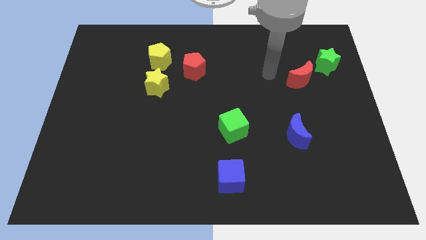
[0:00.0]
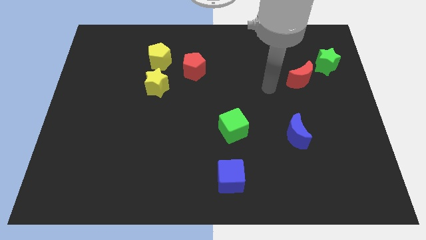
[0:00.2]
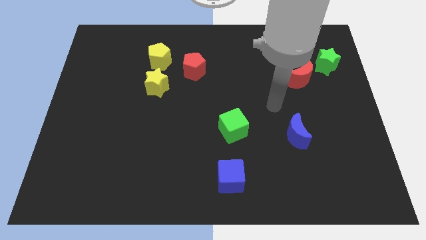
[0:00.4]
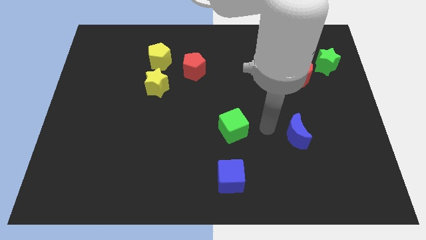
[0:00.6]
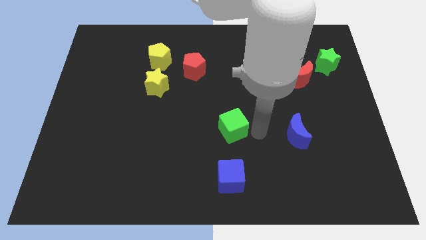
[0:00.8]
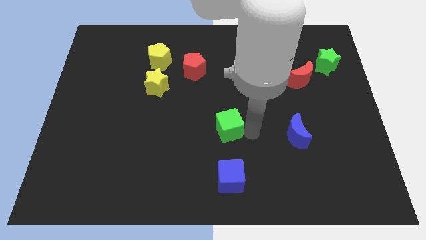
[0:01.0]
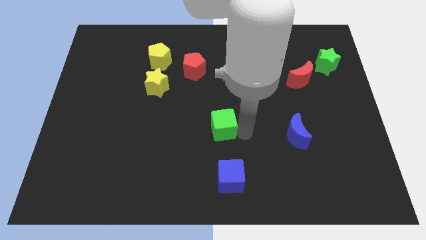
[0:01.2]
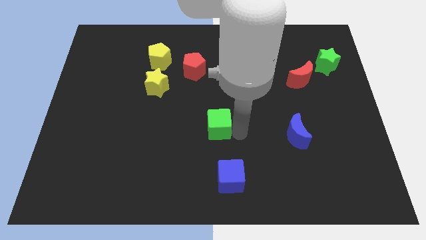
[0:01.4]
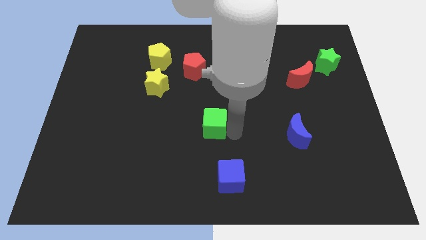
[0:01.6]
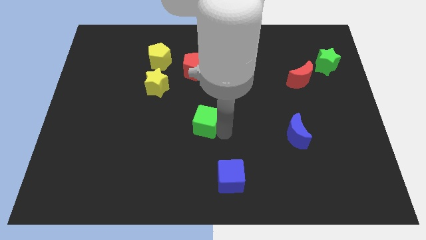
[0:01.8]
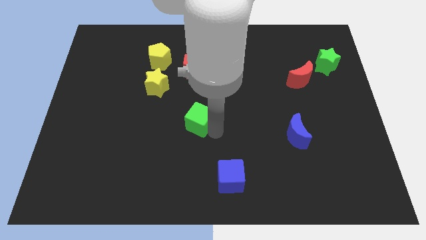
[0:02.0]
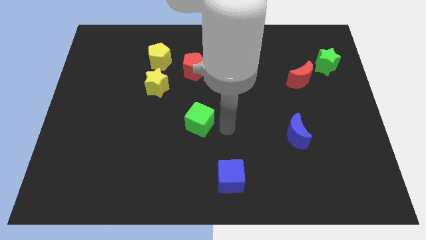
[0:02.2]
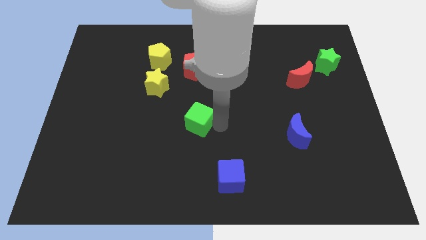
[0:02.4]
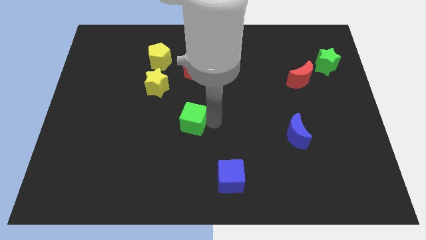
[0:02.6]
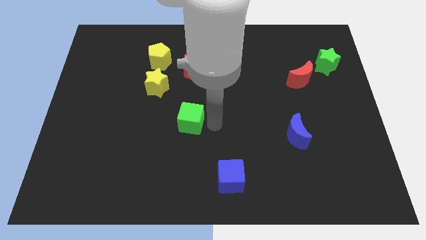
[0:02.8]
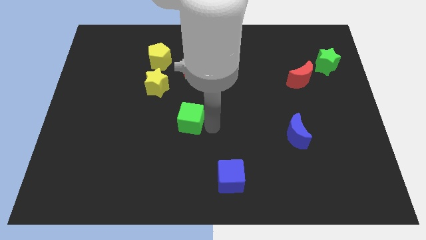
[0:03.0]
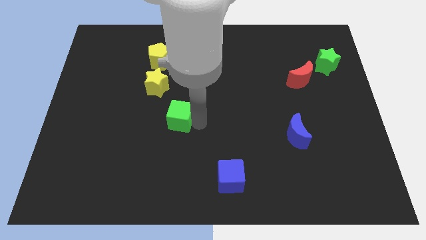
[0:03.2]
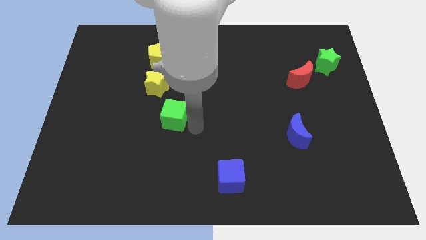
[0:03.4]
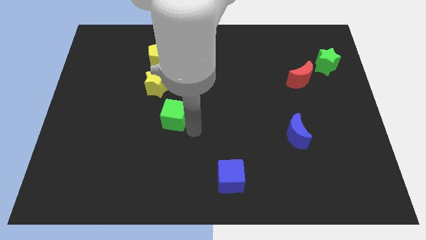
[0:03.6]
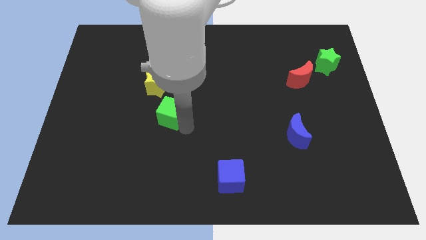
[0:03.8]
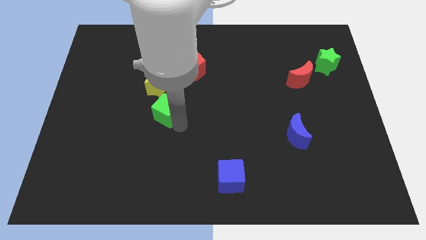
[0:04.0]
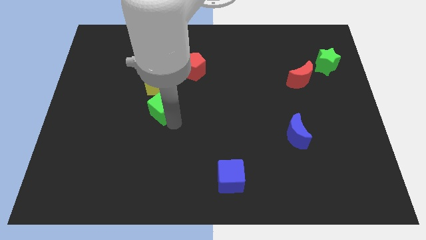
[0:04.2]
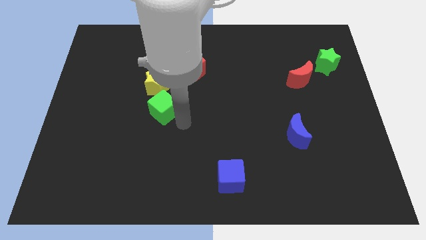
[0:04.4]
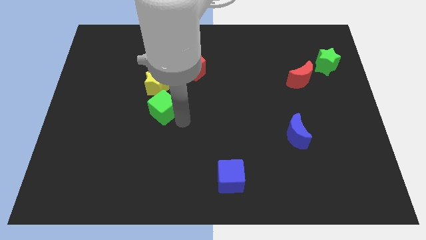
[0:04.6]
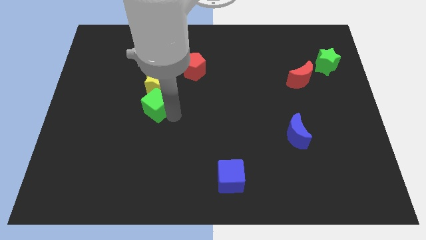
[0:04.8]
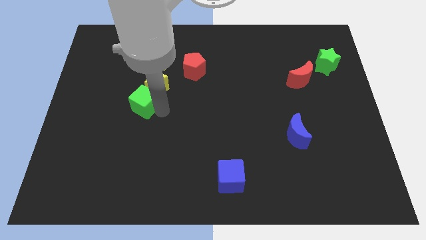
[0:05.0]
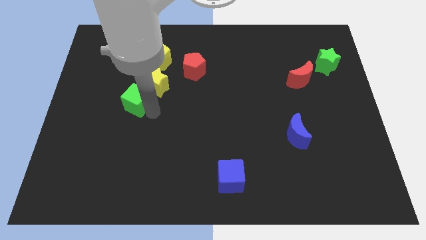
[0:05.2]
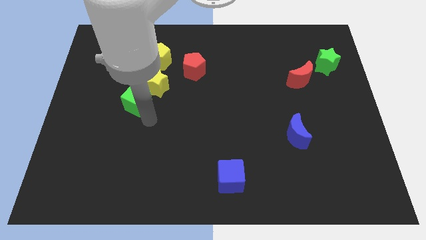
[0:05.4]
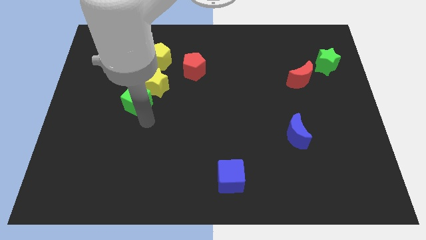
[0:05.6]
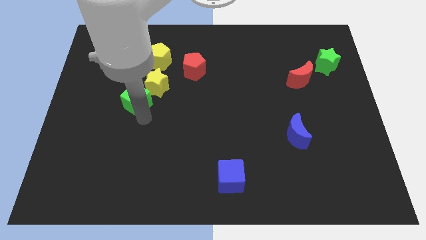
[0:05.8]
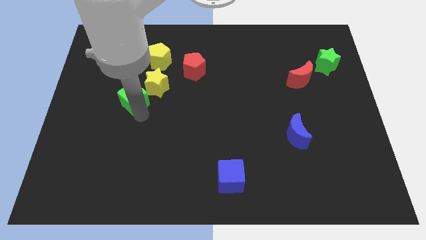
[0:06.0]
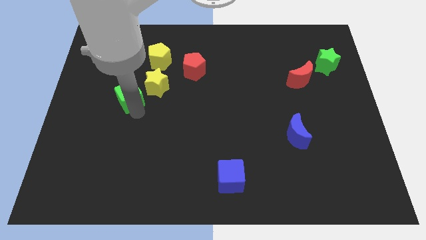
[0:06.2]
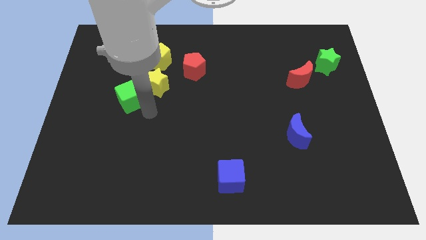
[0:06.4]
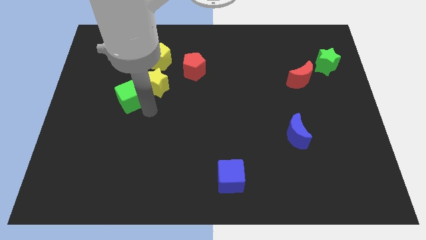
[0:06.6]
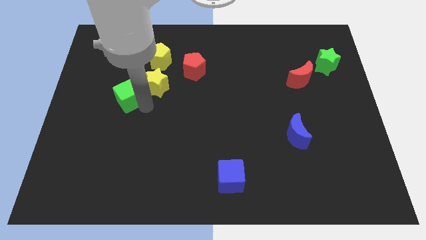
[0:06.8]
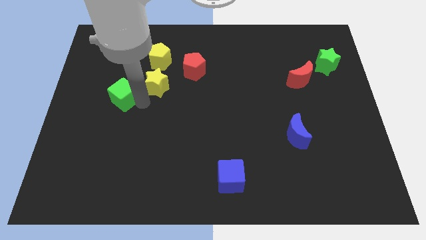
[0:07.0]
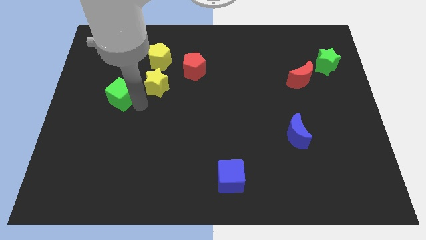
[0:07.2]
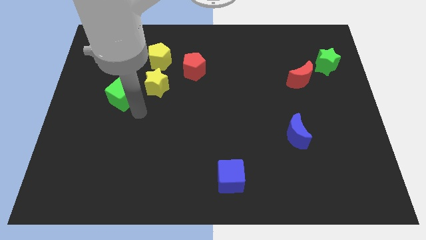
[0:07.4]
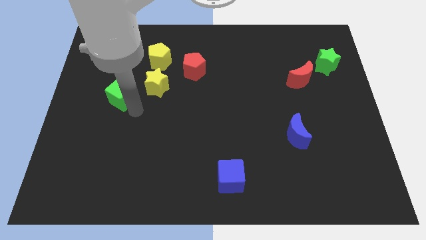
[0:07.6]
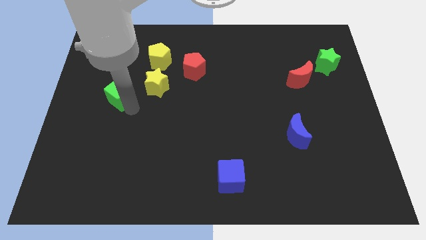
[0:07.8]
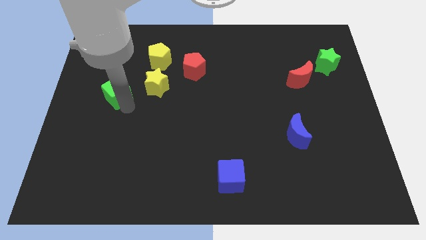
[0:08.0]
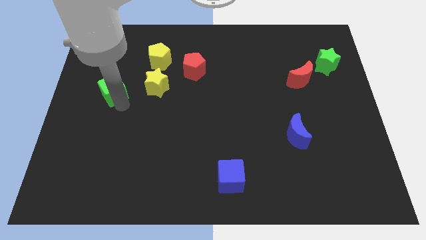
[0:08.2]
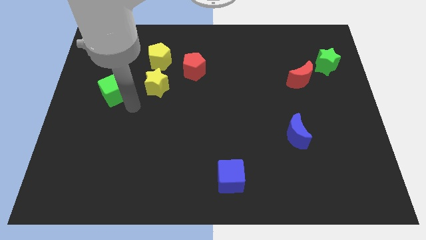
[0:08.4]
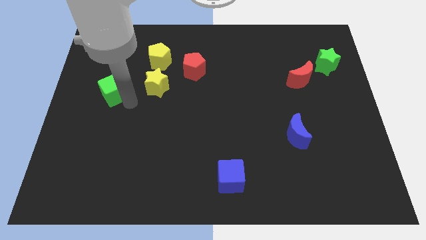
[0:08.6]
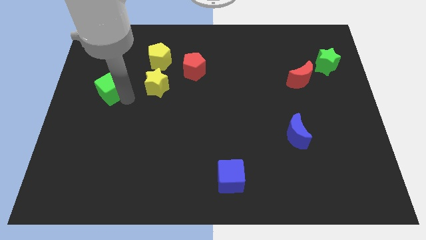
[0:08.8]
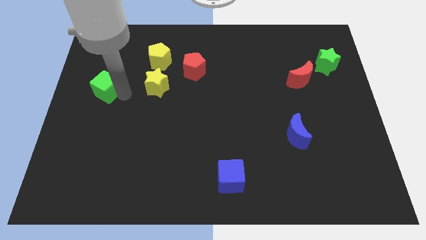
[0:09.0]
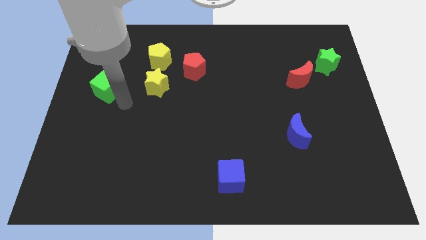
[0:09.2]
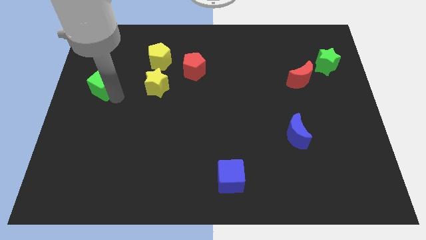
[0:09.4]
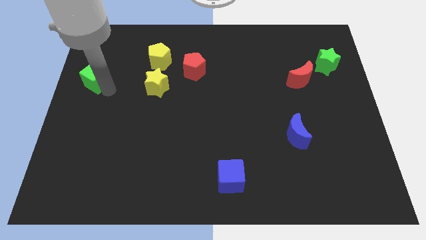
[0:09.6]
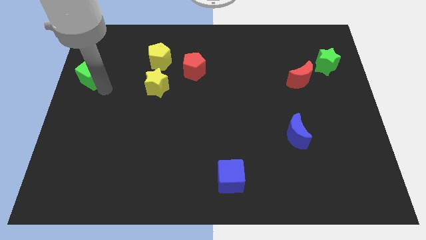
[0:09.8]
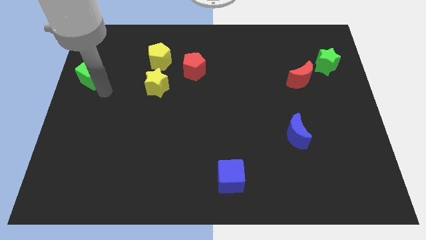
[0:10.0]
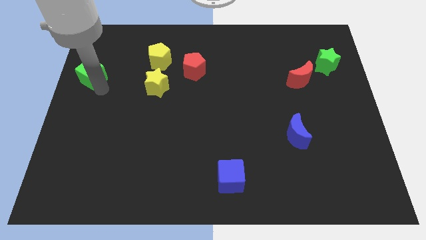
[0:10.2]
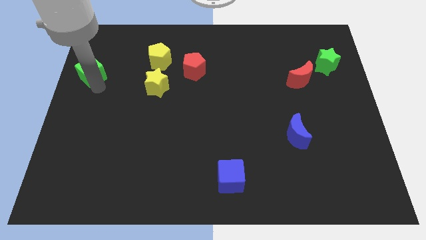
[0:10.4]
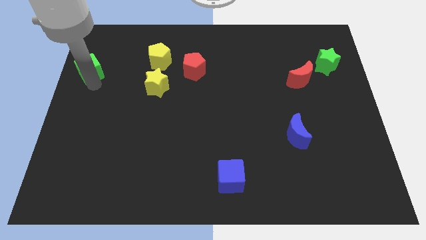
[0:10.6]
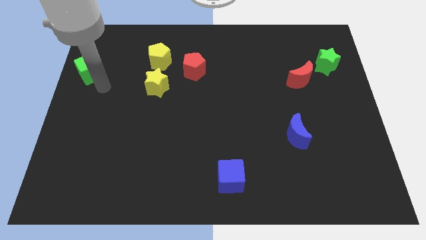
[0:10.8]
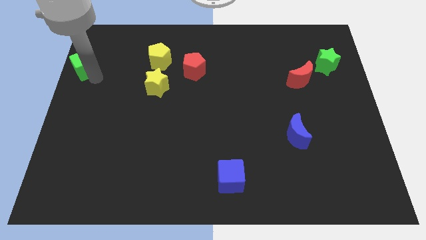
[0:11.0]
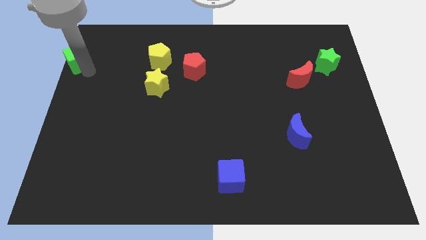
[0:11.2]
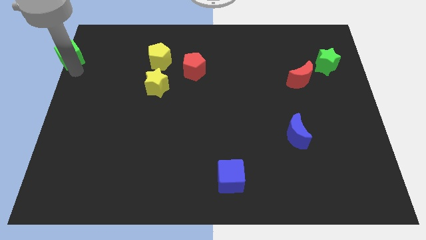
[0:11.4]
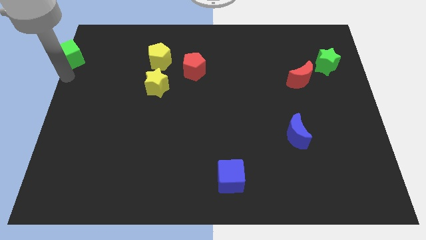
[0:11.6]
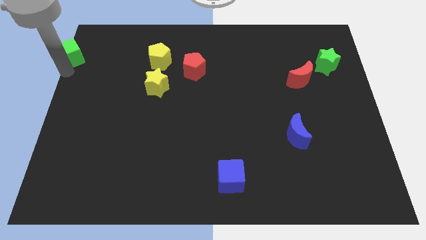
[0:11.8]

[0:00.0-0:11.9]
slide the green cube to the top left
